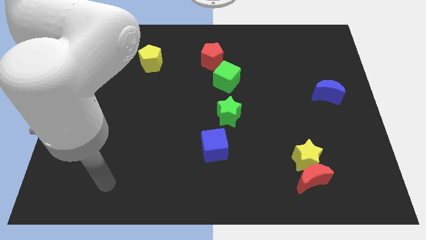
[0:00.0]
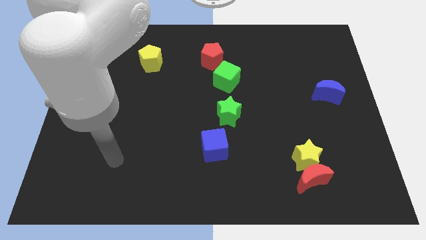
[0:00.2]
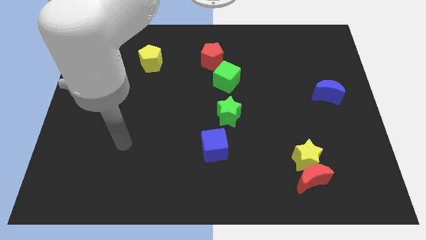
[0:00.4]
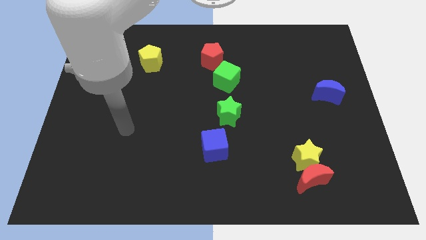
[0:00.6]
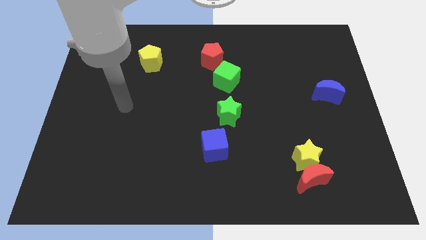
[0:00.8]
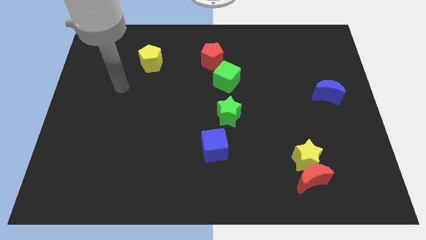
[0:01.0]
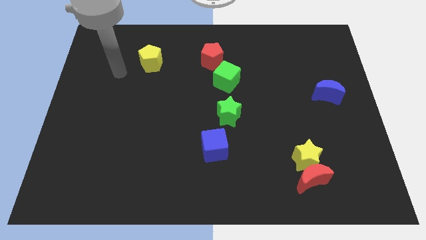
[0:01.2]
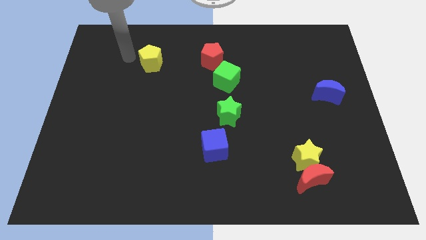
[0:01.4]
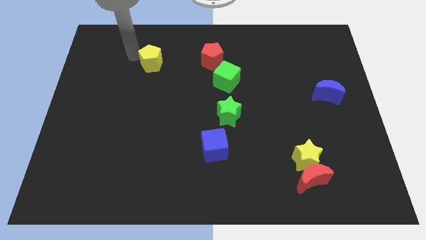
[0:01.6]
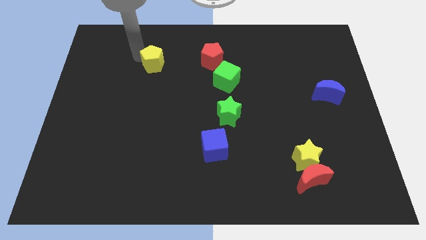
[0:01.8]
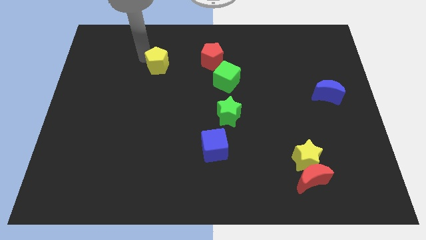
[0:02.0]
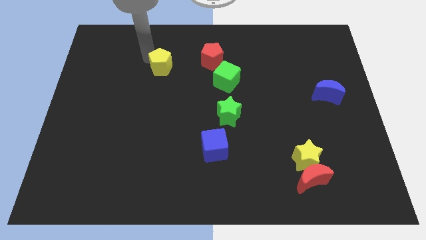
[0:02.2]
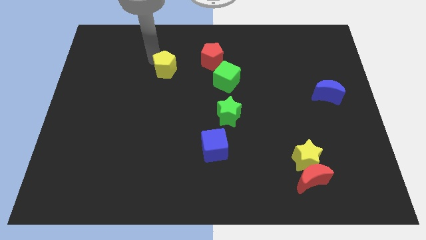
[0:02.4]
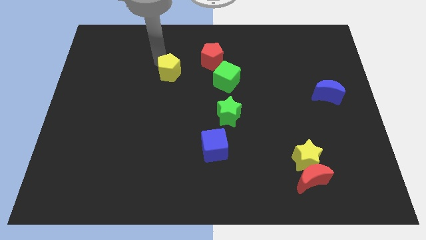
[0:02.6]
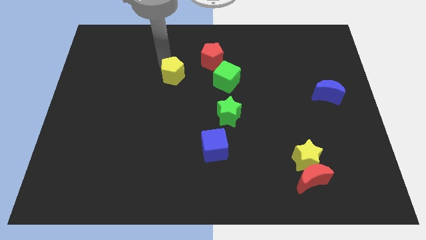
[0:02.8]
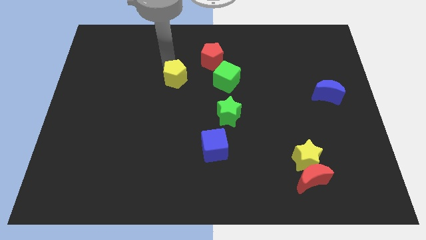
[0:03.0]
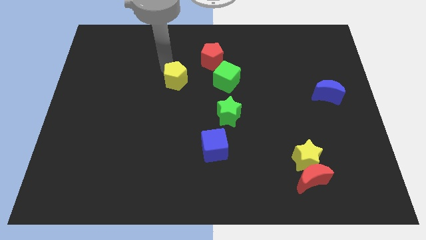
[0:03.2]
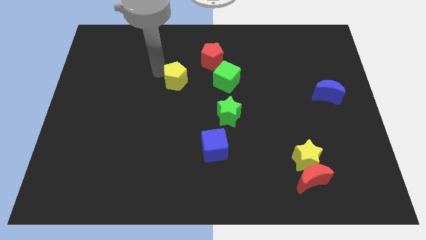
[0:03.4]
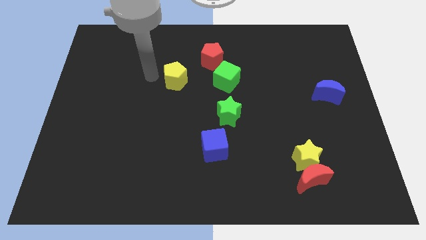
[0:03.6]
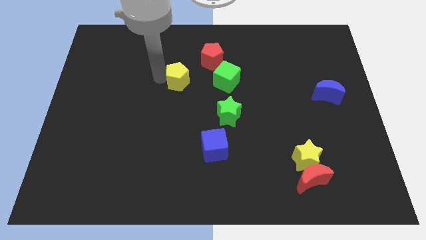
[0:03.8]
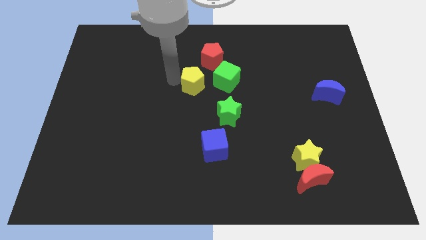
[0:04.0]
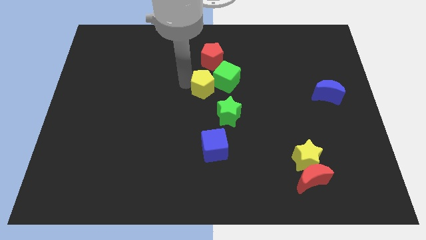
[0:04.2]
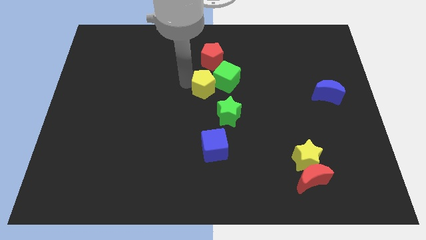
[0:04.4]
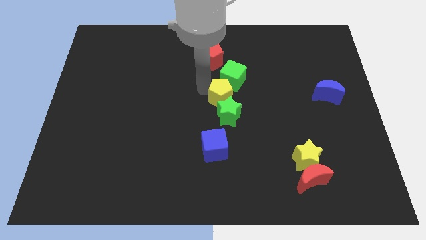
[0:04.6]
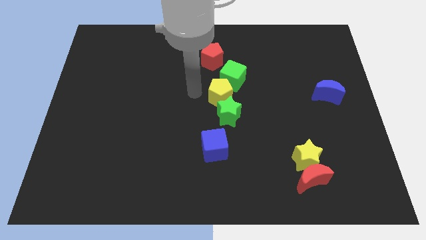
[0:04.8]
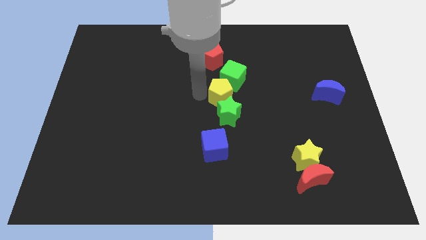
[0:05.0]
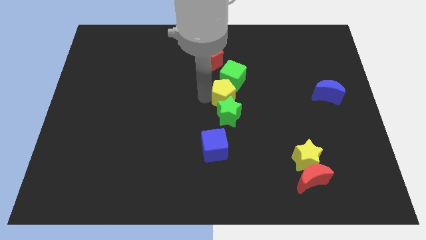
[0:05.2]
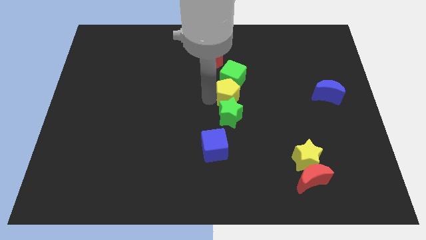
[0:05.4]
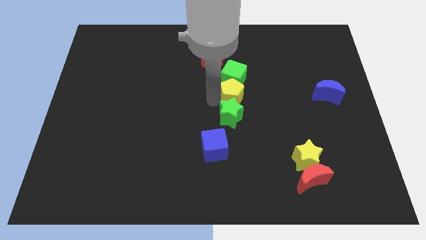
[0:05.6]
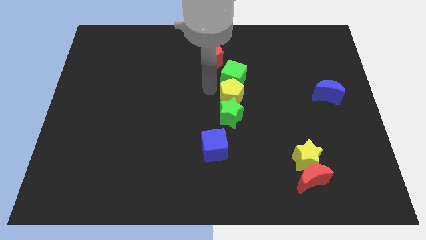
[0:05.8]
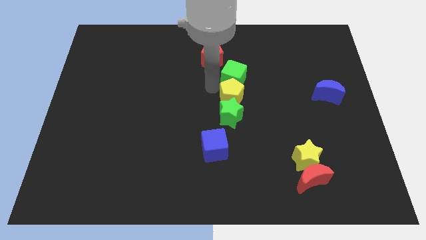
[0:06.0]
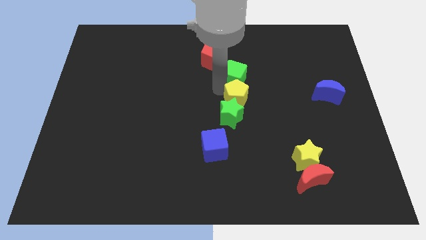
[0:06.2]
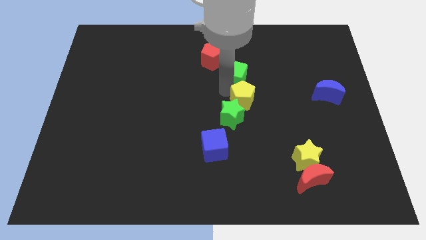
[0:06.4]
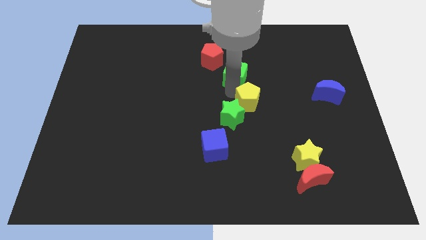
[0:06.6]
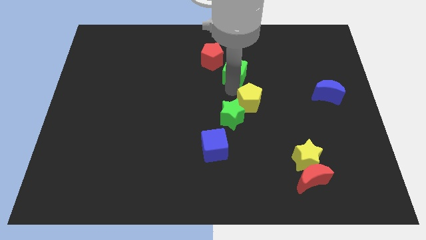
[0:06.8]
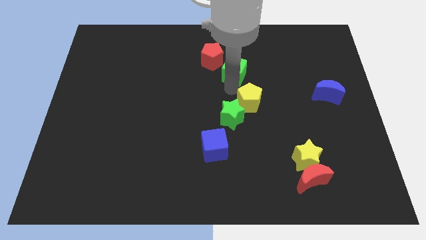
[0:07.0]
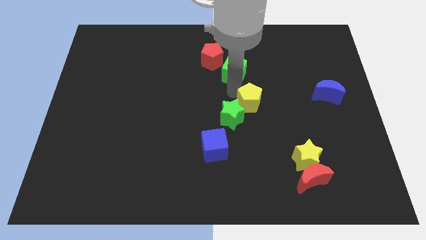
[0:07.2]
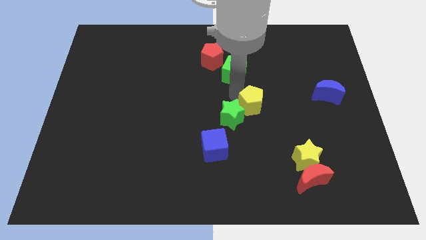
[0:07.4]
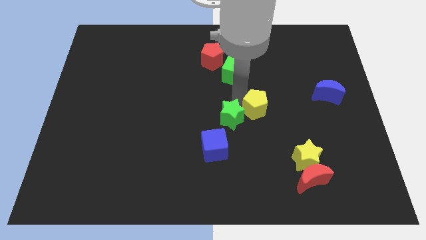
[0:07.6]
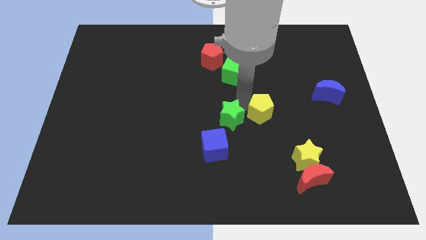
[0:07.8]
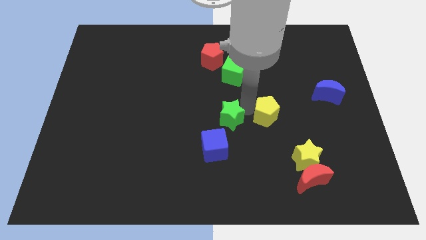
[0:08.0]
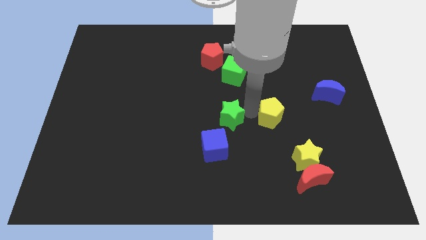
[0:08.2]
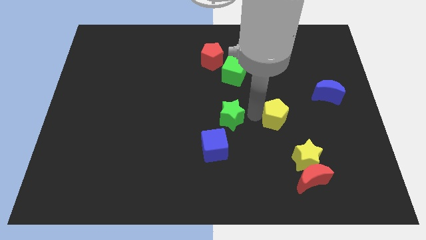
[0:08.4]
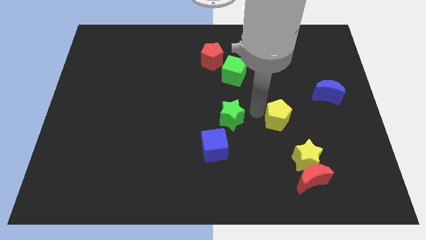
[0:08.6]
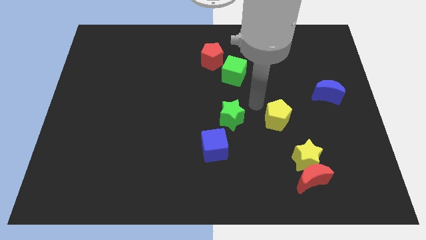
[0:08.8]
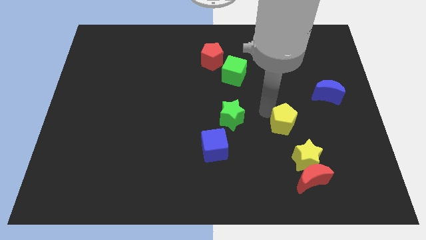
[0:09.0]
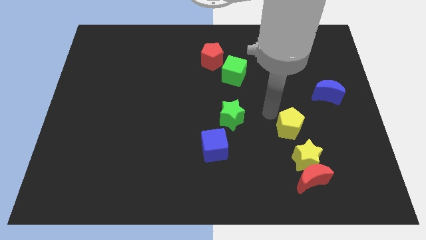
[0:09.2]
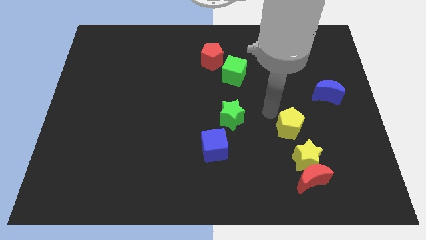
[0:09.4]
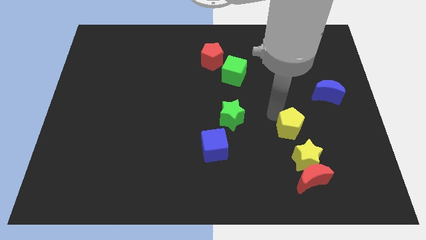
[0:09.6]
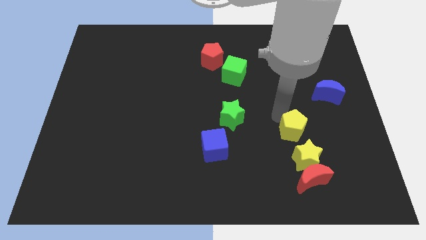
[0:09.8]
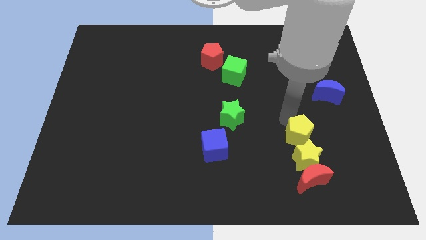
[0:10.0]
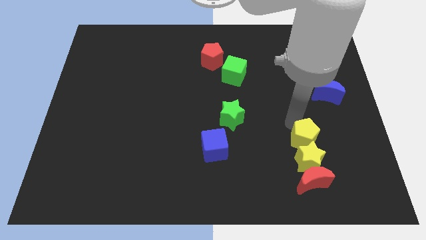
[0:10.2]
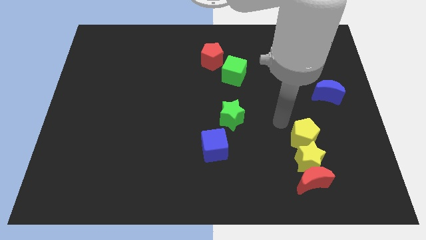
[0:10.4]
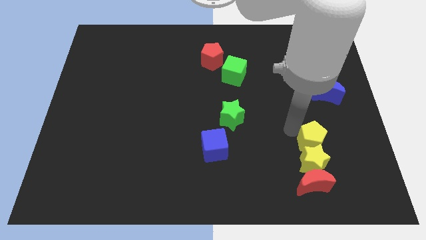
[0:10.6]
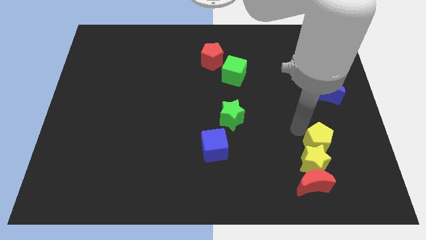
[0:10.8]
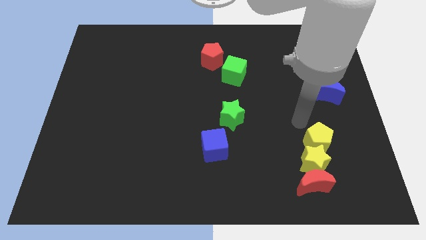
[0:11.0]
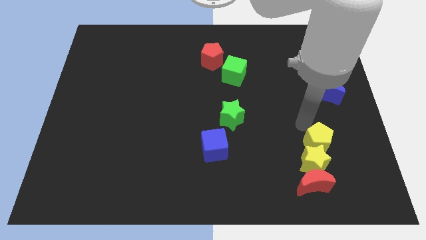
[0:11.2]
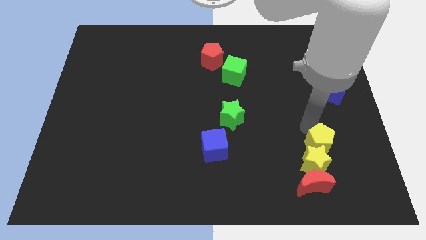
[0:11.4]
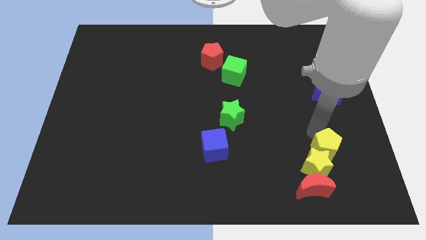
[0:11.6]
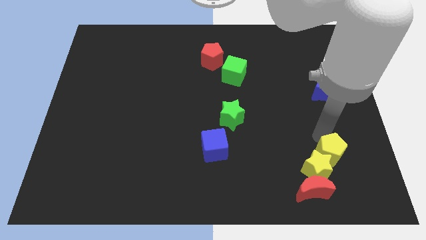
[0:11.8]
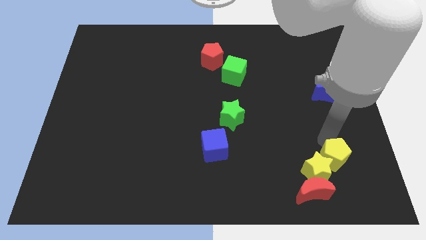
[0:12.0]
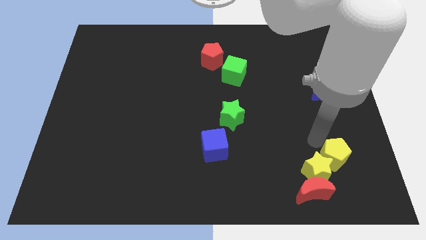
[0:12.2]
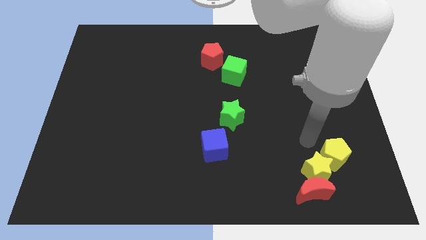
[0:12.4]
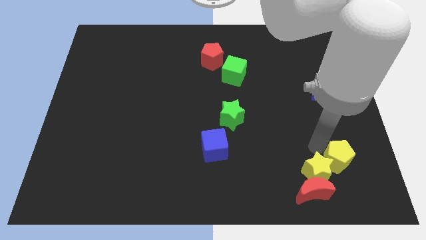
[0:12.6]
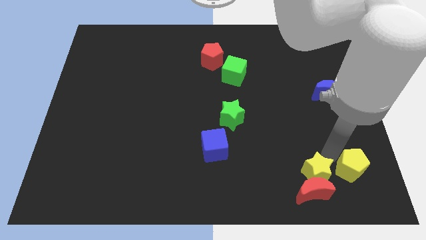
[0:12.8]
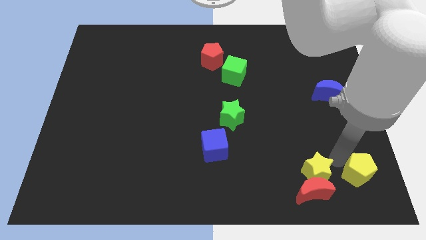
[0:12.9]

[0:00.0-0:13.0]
put the yellow pentagon to the bottom right corner
